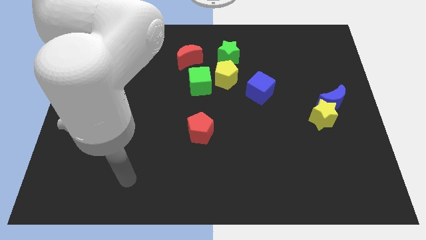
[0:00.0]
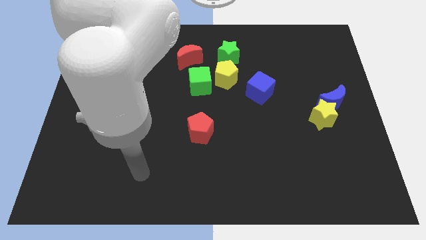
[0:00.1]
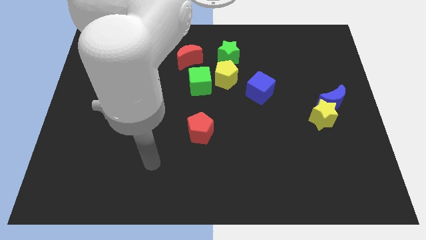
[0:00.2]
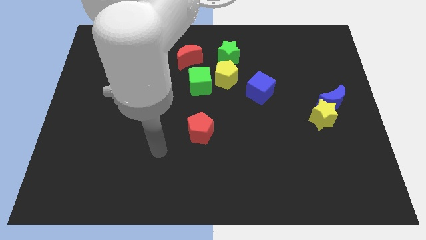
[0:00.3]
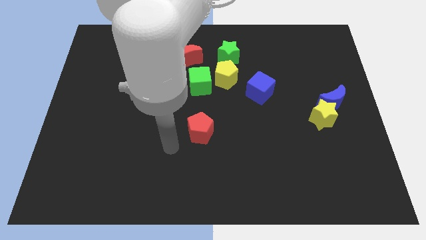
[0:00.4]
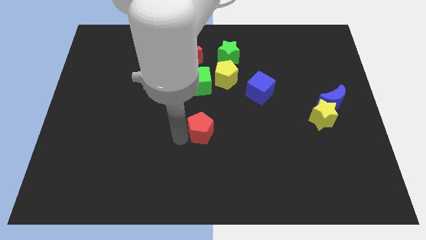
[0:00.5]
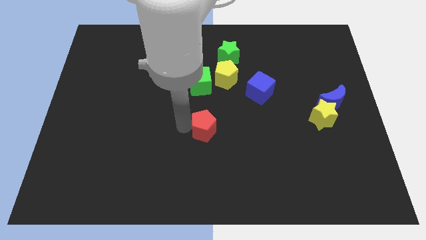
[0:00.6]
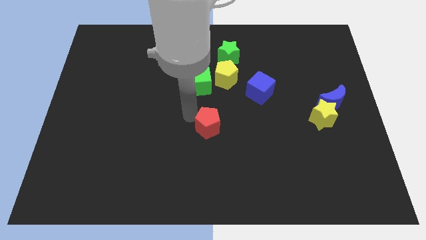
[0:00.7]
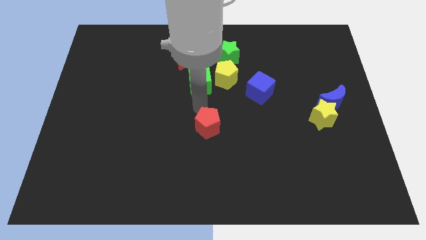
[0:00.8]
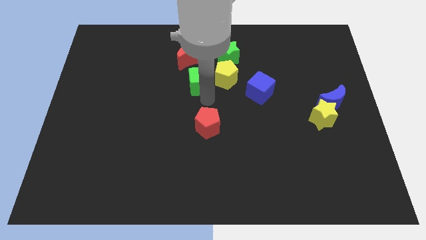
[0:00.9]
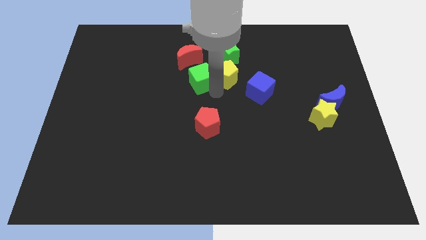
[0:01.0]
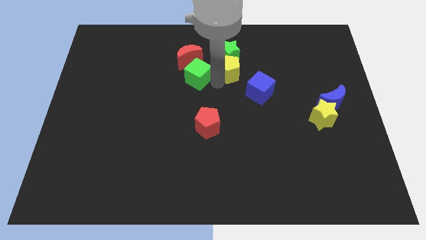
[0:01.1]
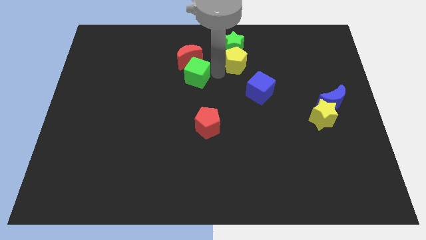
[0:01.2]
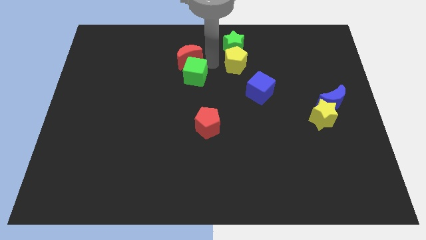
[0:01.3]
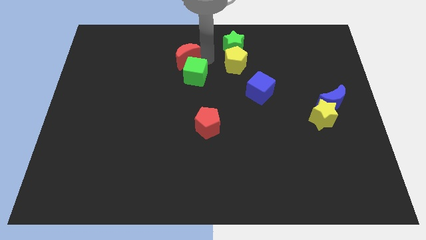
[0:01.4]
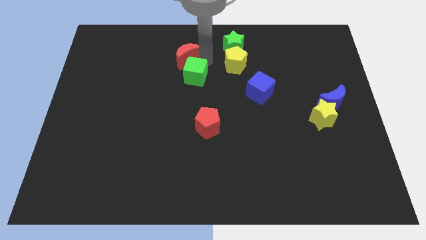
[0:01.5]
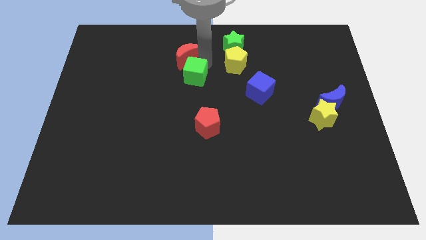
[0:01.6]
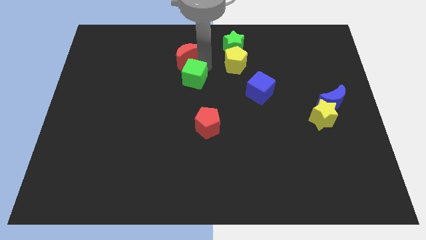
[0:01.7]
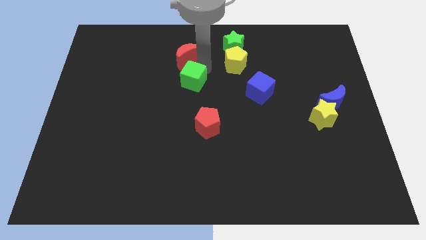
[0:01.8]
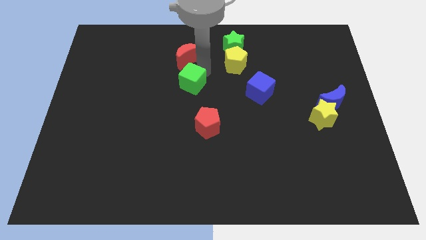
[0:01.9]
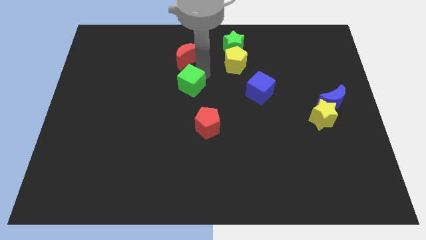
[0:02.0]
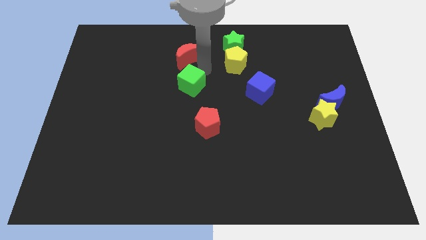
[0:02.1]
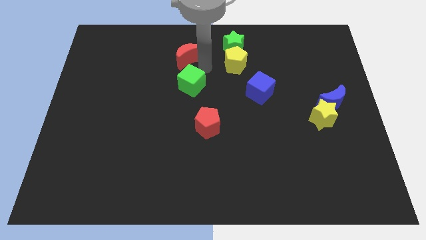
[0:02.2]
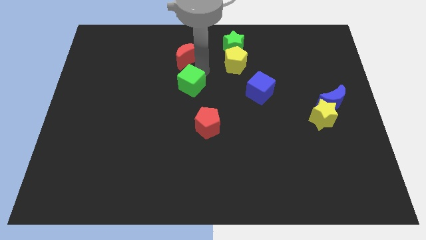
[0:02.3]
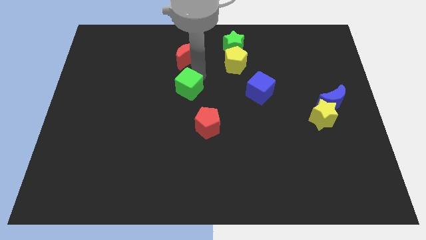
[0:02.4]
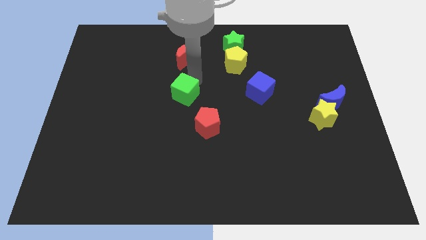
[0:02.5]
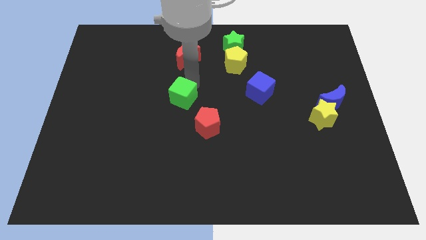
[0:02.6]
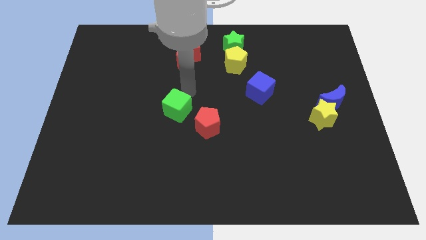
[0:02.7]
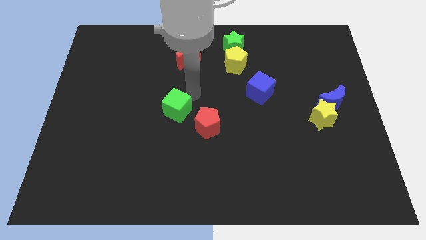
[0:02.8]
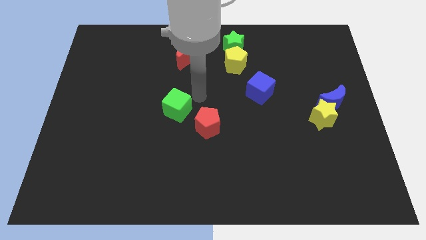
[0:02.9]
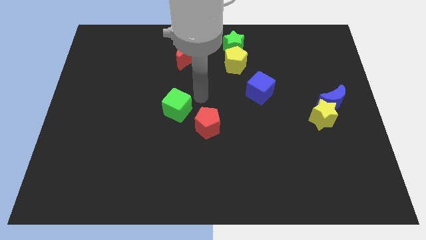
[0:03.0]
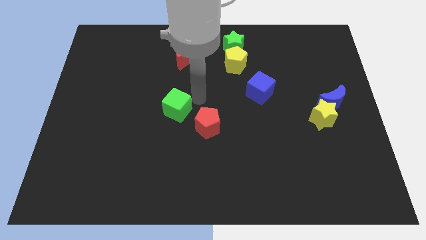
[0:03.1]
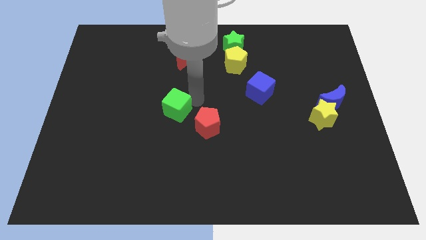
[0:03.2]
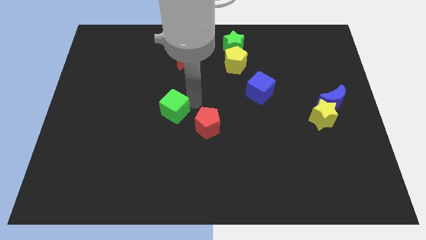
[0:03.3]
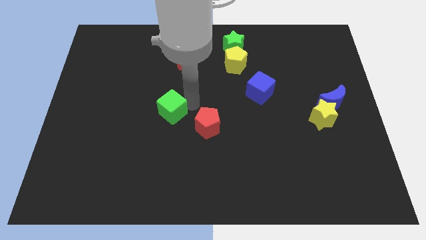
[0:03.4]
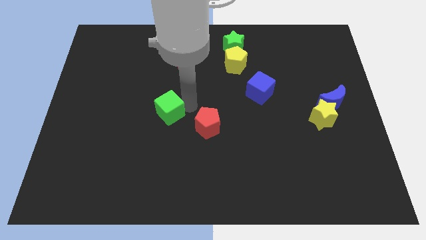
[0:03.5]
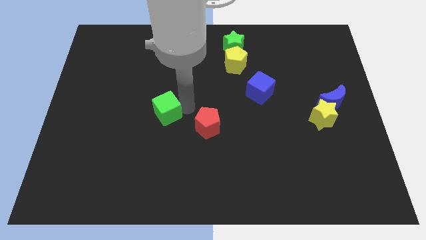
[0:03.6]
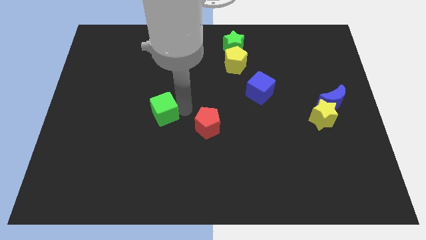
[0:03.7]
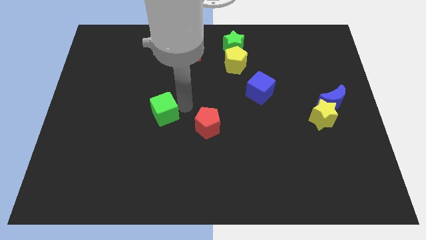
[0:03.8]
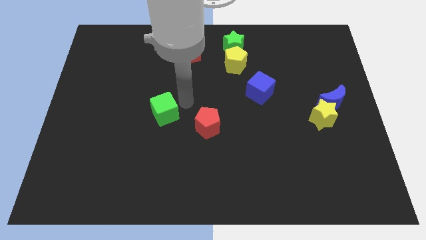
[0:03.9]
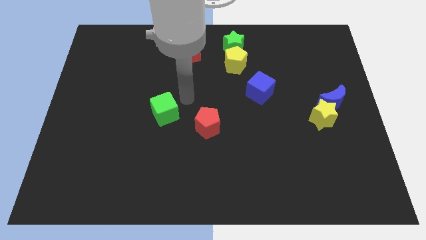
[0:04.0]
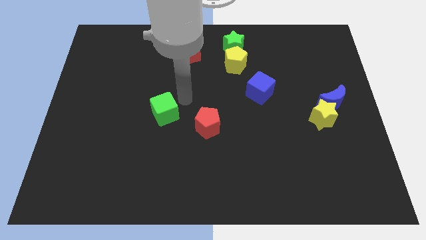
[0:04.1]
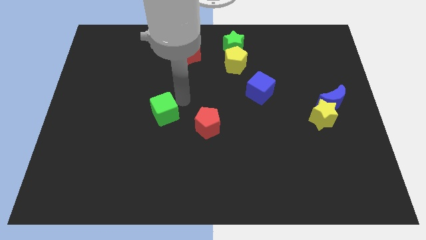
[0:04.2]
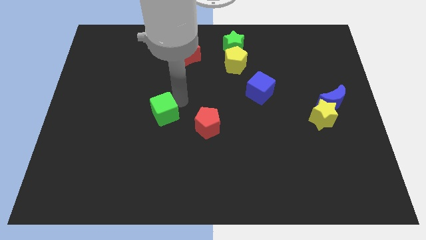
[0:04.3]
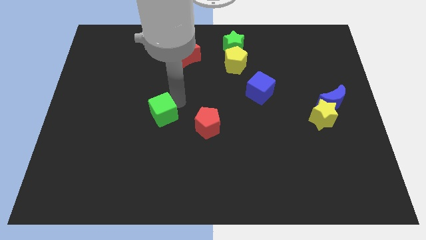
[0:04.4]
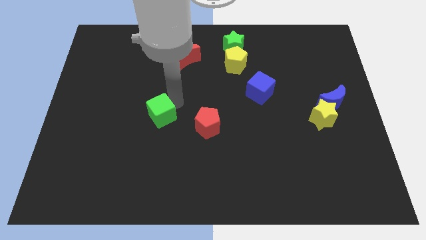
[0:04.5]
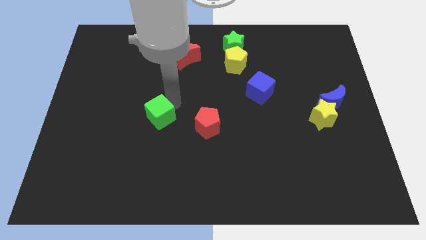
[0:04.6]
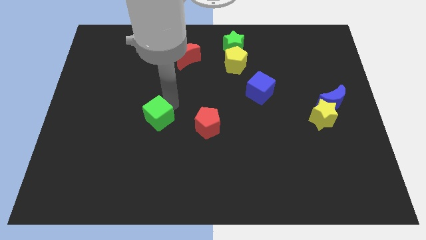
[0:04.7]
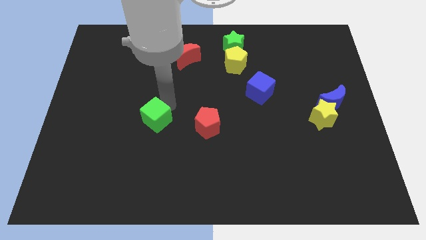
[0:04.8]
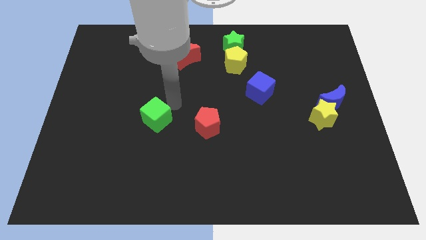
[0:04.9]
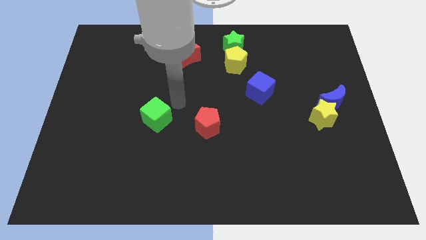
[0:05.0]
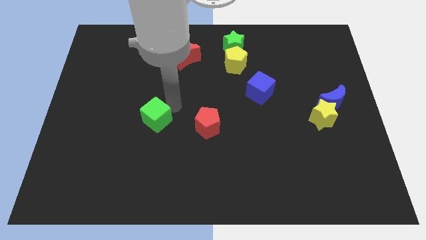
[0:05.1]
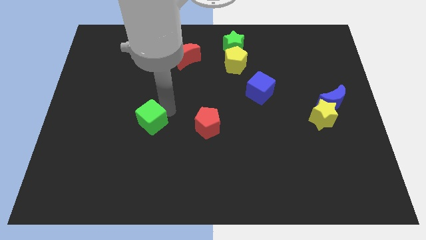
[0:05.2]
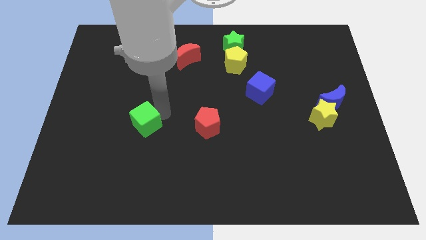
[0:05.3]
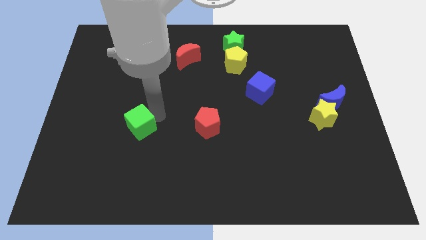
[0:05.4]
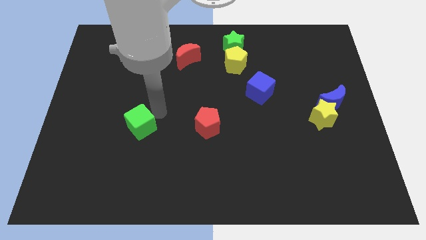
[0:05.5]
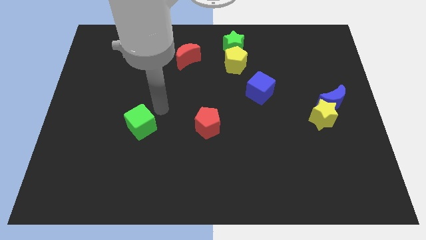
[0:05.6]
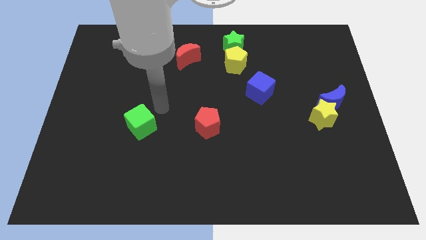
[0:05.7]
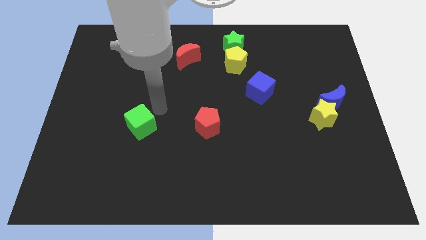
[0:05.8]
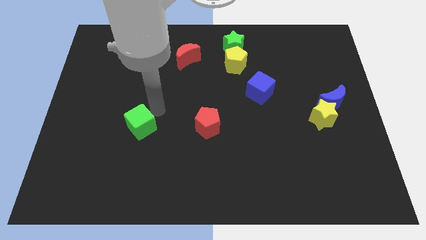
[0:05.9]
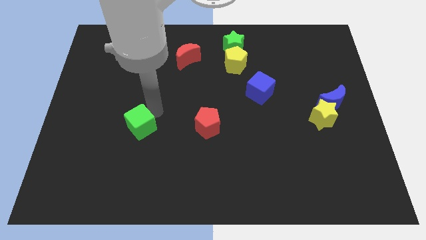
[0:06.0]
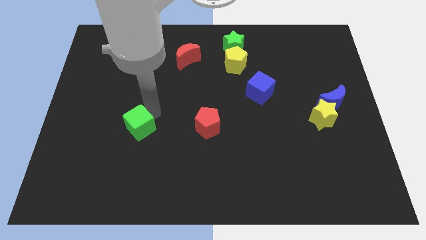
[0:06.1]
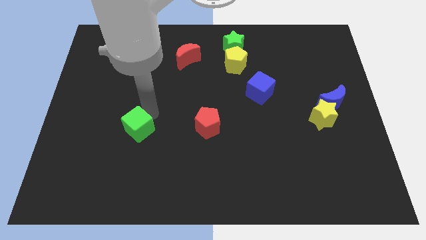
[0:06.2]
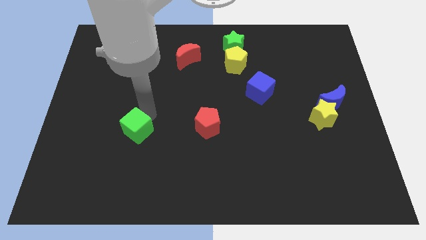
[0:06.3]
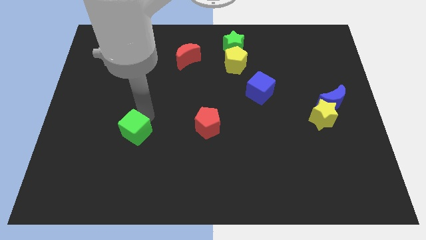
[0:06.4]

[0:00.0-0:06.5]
push the green cube downwards and then to the left

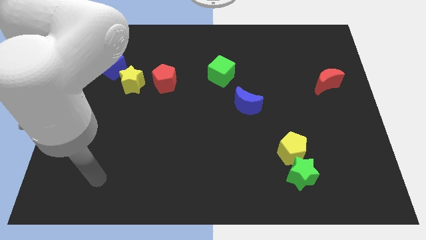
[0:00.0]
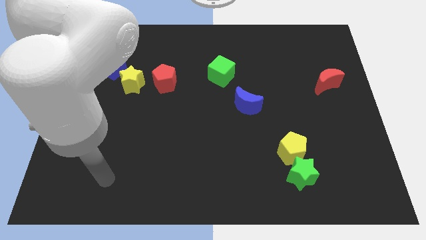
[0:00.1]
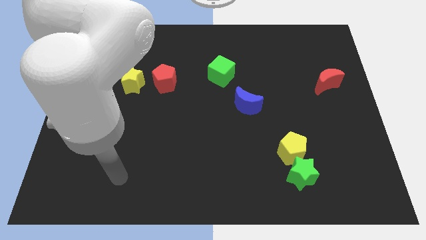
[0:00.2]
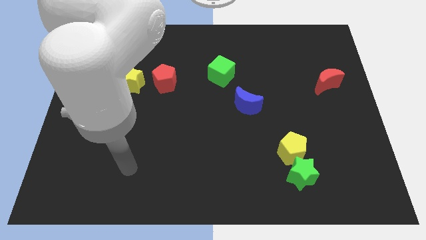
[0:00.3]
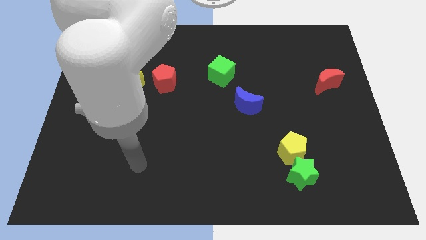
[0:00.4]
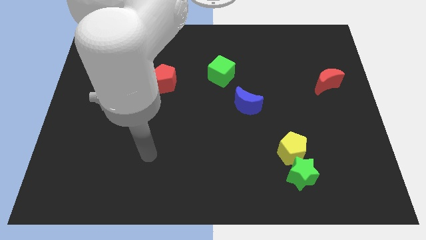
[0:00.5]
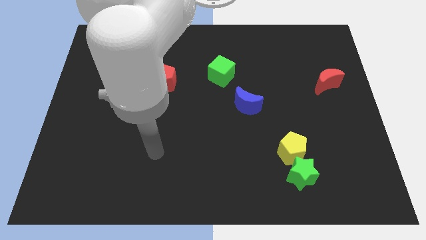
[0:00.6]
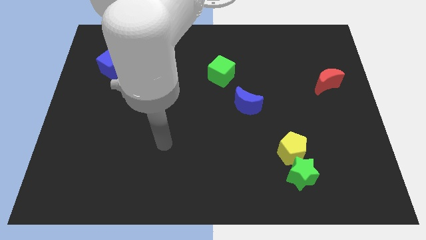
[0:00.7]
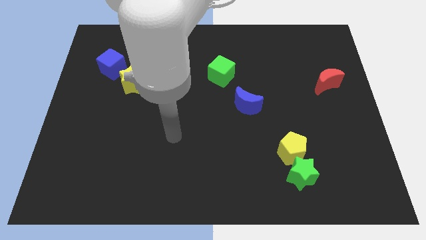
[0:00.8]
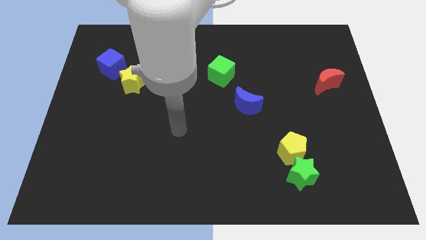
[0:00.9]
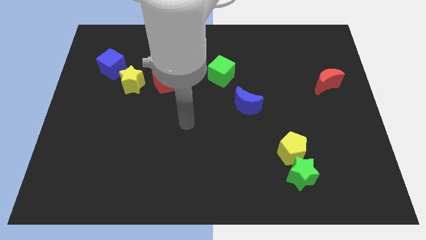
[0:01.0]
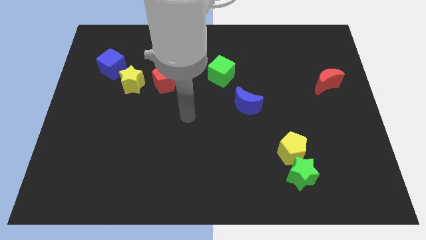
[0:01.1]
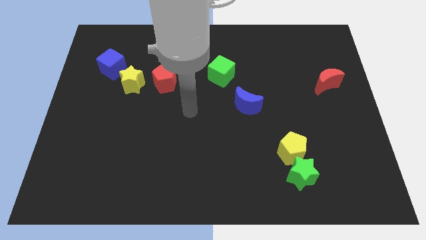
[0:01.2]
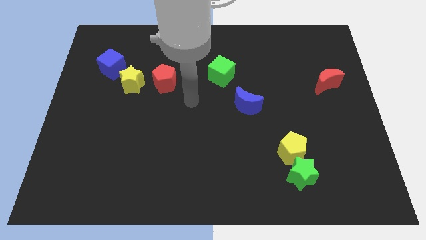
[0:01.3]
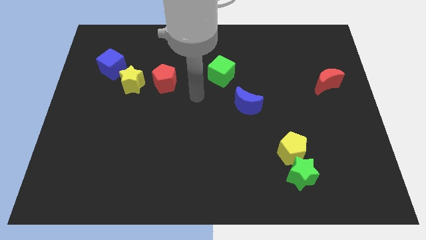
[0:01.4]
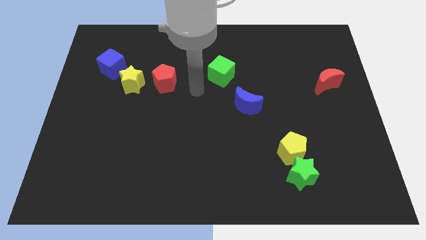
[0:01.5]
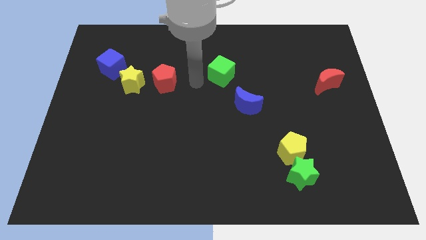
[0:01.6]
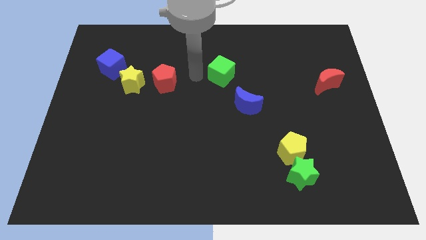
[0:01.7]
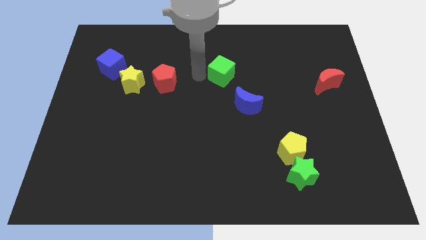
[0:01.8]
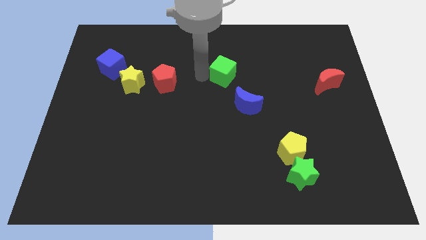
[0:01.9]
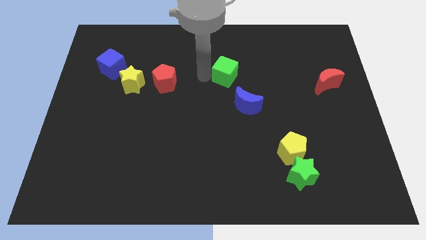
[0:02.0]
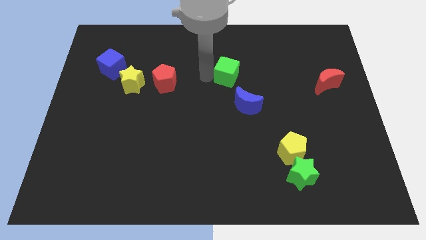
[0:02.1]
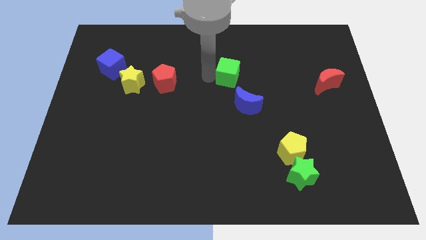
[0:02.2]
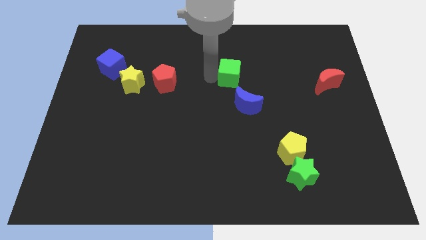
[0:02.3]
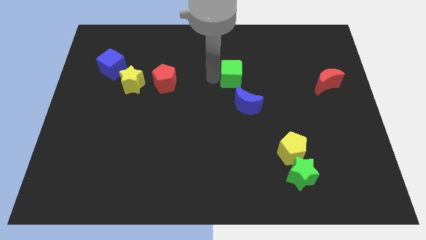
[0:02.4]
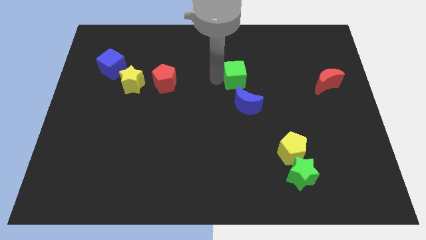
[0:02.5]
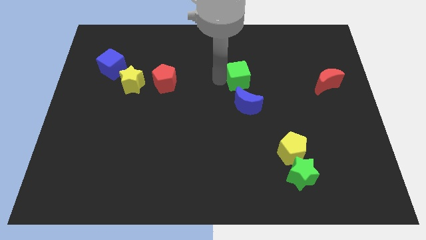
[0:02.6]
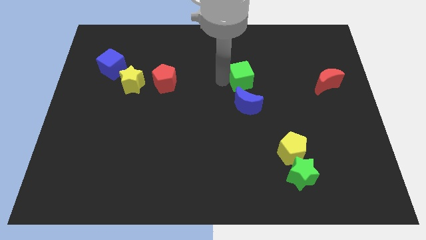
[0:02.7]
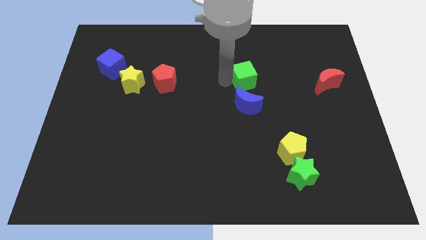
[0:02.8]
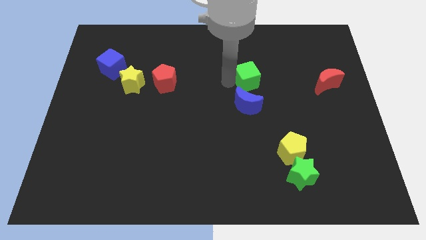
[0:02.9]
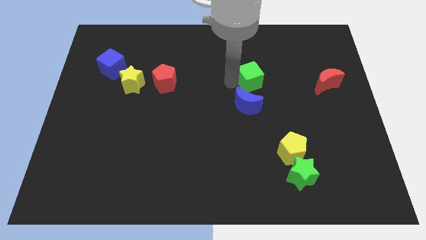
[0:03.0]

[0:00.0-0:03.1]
slide the green cube to the right a little
